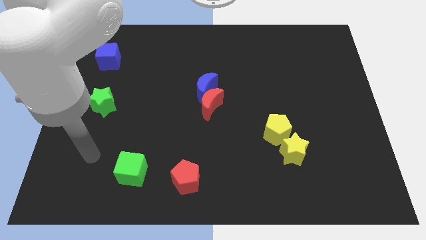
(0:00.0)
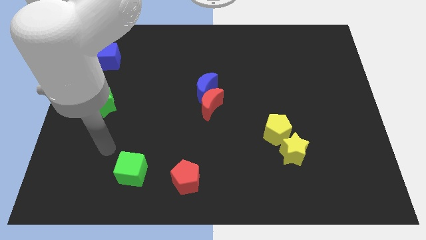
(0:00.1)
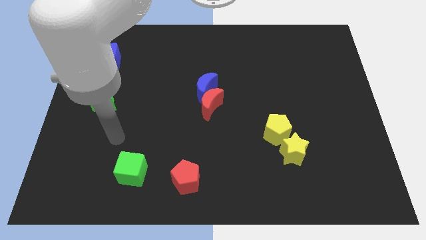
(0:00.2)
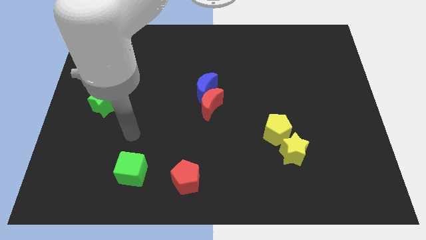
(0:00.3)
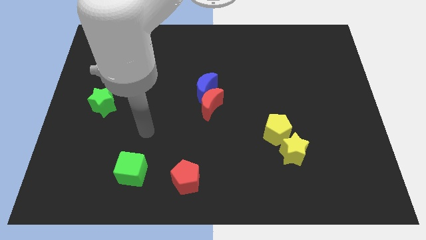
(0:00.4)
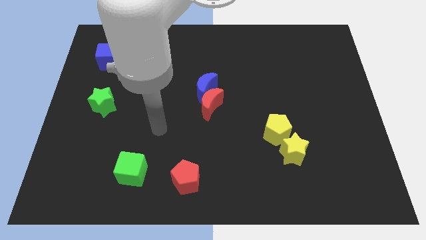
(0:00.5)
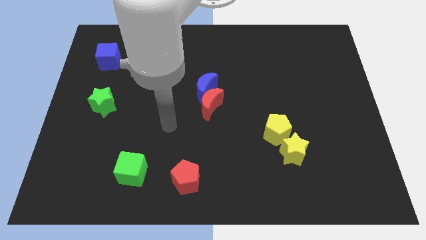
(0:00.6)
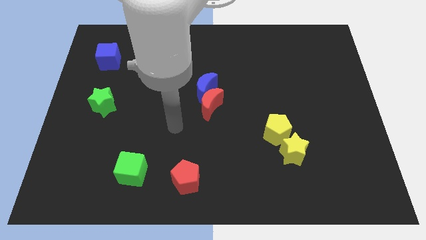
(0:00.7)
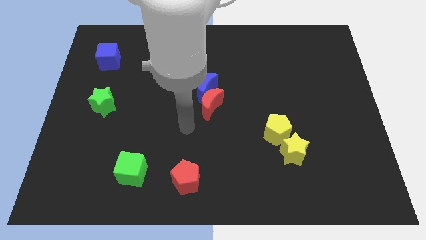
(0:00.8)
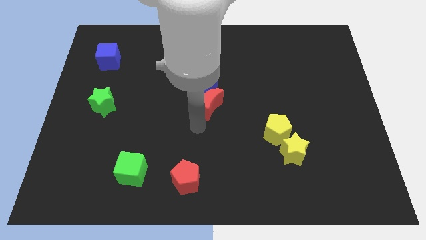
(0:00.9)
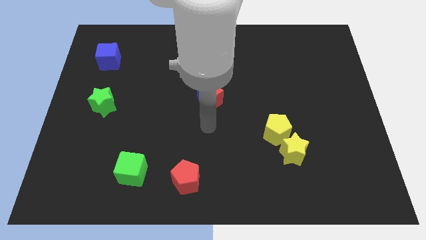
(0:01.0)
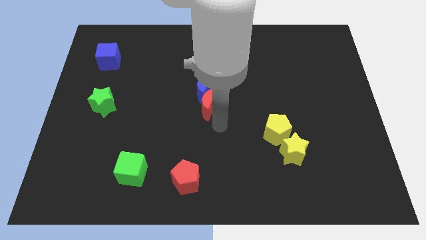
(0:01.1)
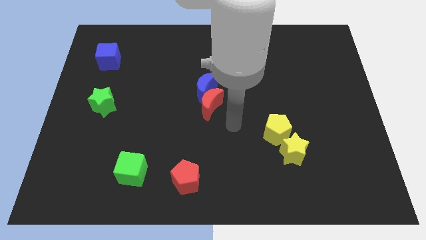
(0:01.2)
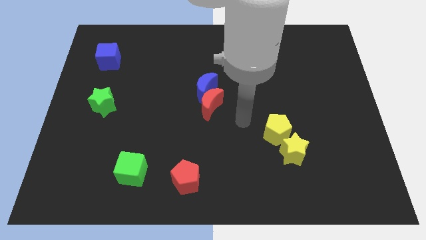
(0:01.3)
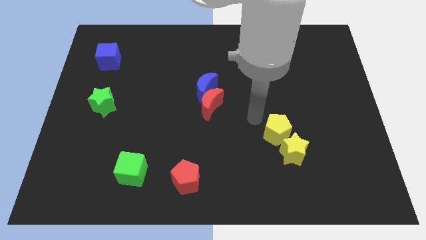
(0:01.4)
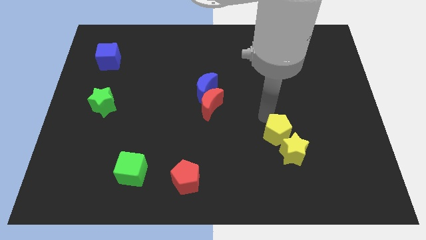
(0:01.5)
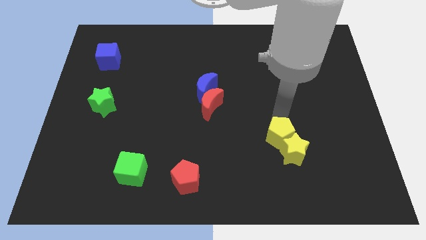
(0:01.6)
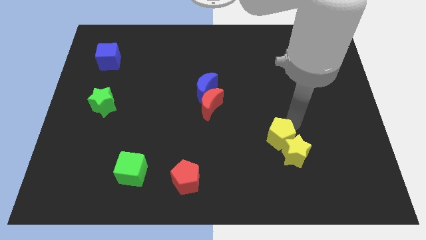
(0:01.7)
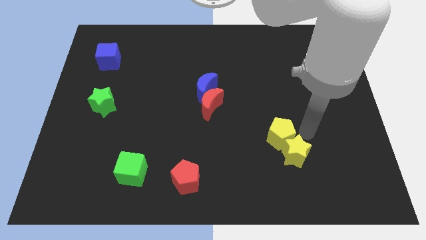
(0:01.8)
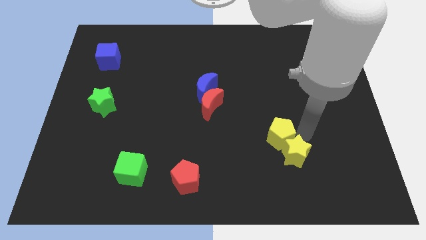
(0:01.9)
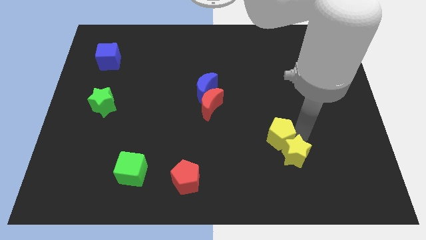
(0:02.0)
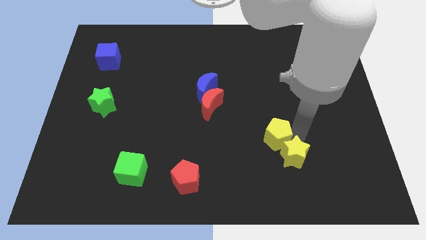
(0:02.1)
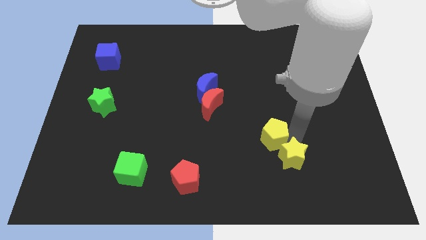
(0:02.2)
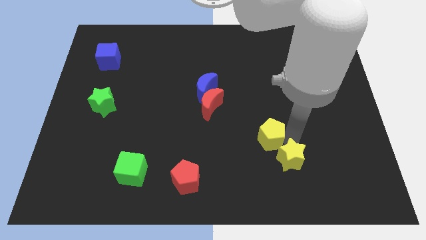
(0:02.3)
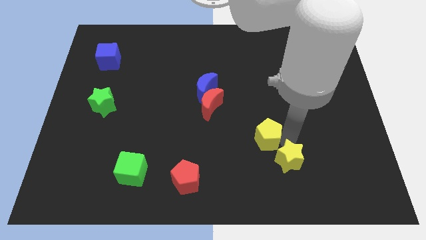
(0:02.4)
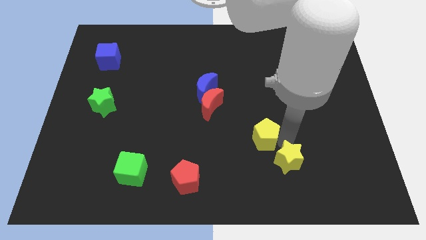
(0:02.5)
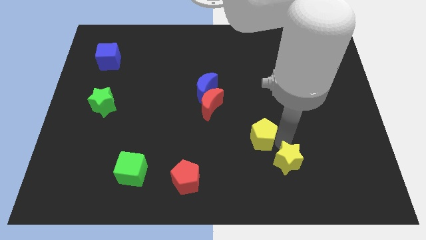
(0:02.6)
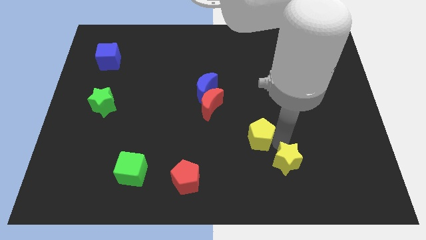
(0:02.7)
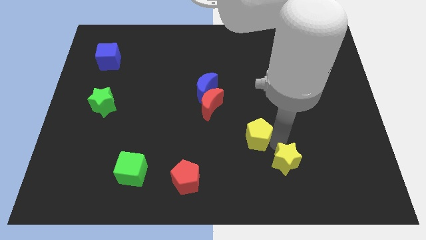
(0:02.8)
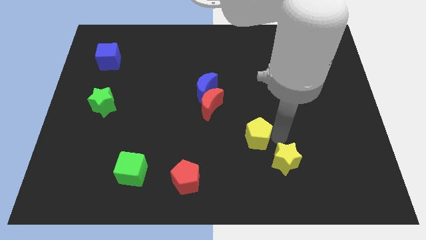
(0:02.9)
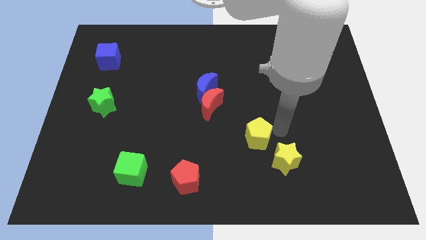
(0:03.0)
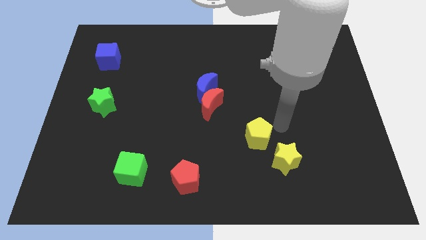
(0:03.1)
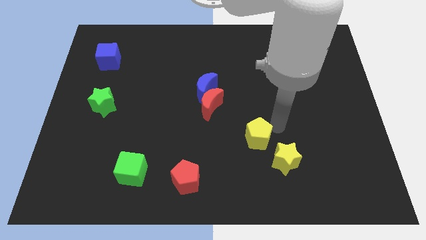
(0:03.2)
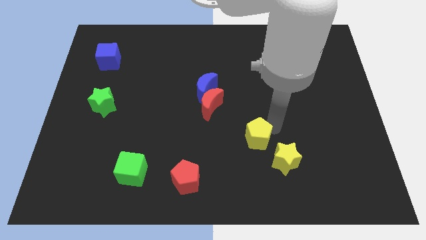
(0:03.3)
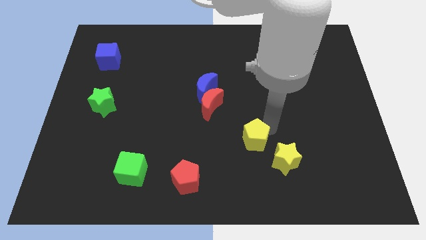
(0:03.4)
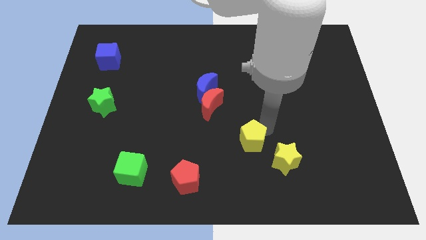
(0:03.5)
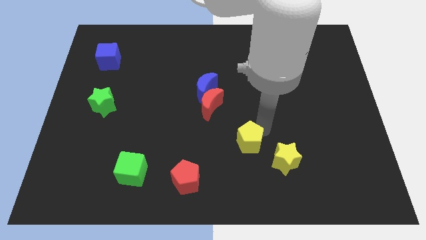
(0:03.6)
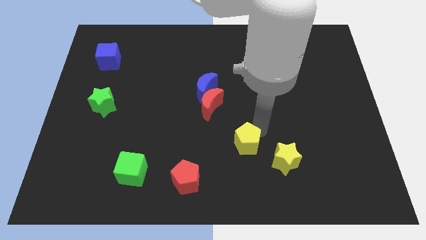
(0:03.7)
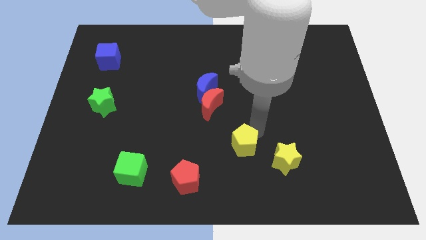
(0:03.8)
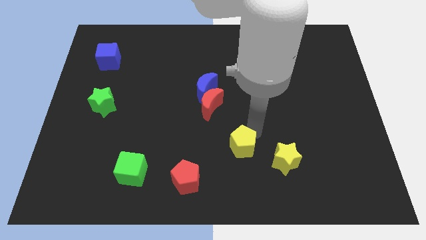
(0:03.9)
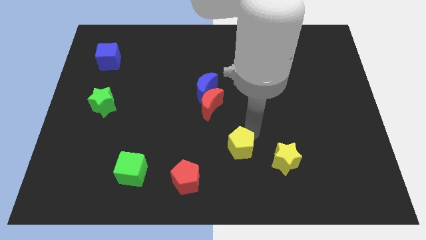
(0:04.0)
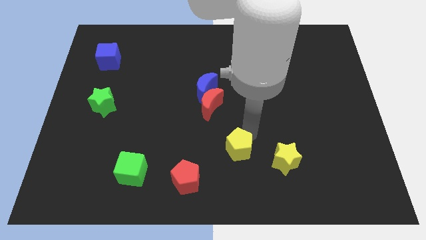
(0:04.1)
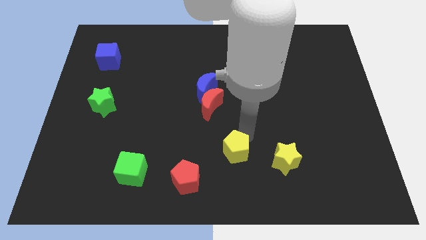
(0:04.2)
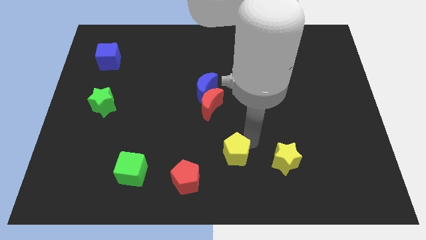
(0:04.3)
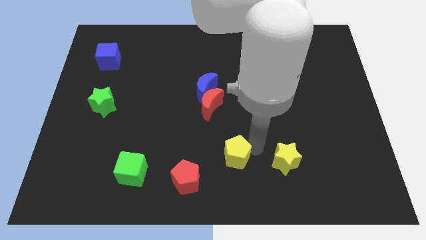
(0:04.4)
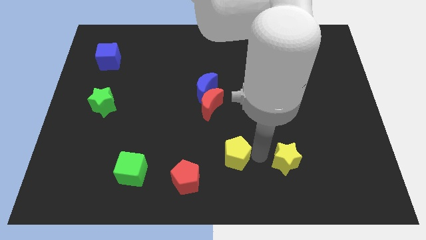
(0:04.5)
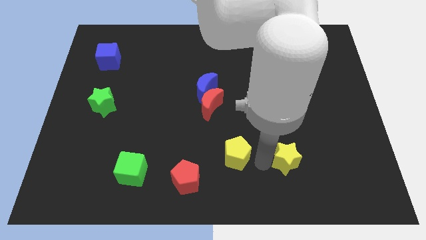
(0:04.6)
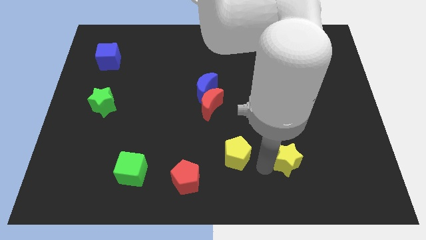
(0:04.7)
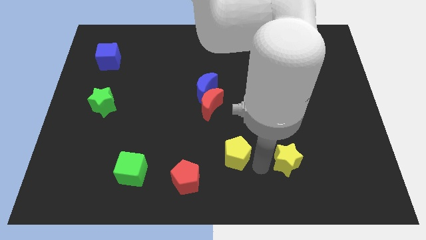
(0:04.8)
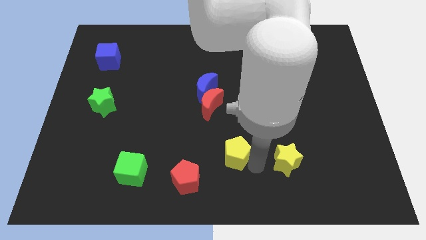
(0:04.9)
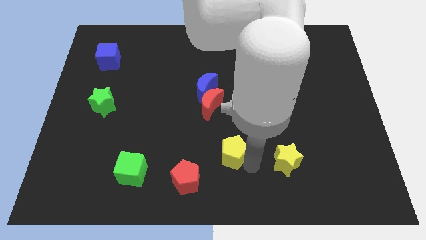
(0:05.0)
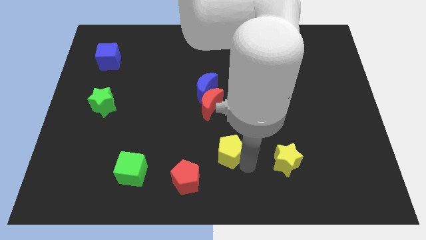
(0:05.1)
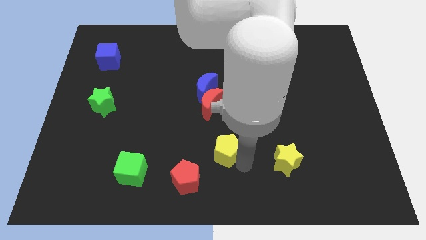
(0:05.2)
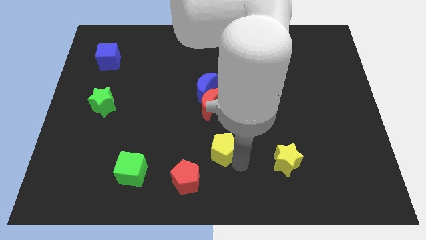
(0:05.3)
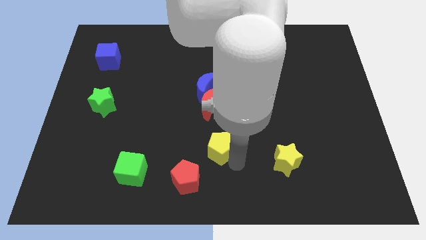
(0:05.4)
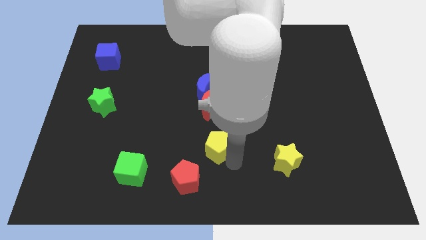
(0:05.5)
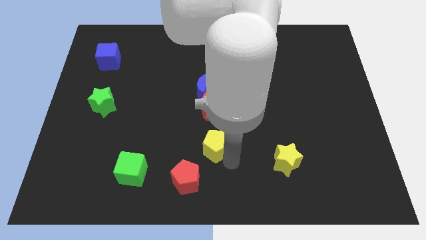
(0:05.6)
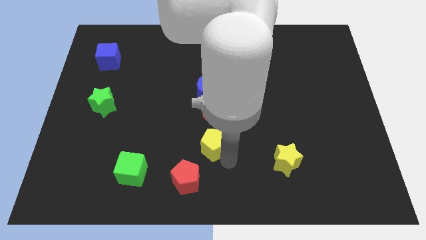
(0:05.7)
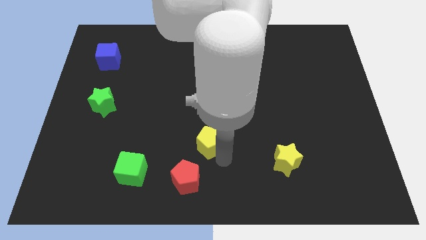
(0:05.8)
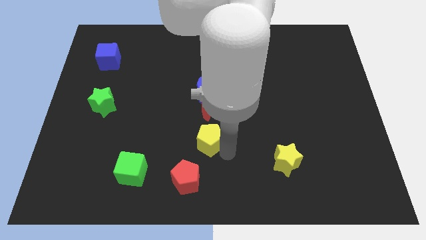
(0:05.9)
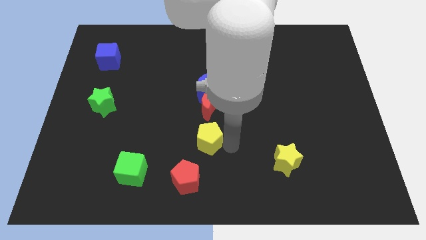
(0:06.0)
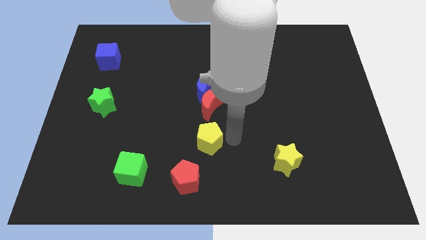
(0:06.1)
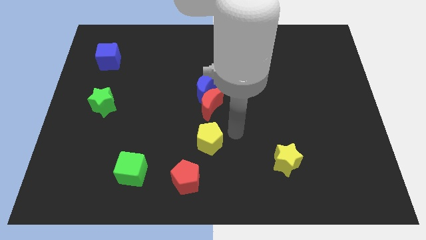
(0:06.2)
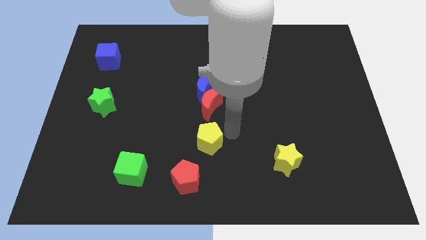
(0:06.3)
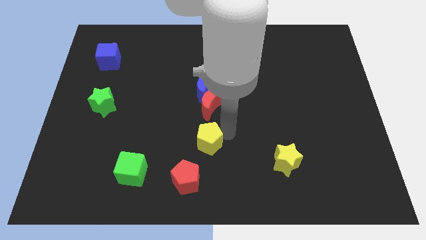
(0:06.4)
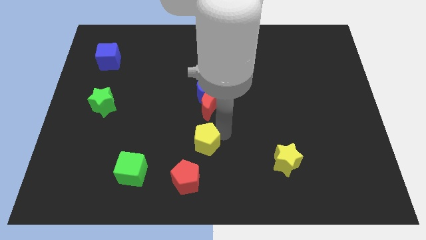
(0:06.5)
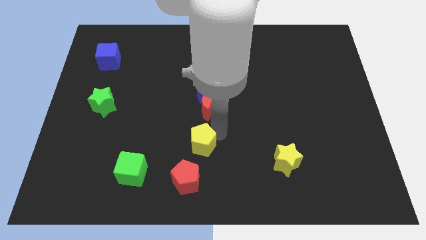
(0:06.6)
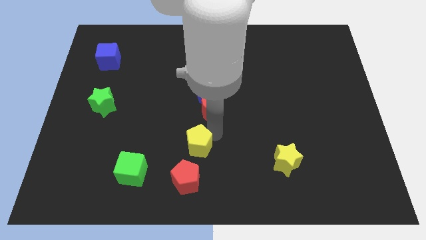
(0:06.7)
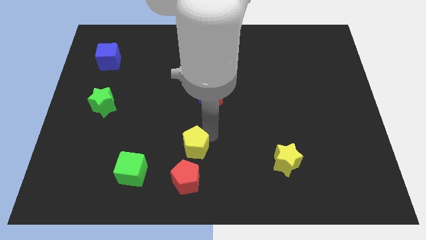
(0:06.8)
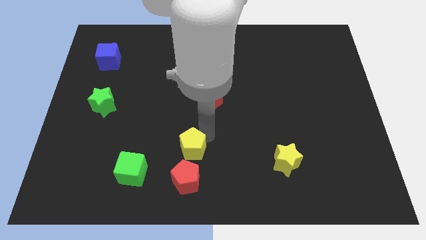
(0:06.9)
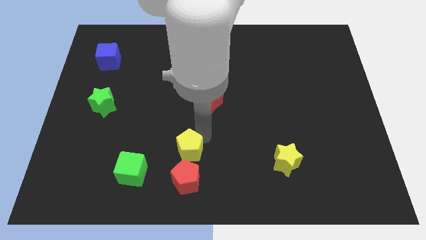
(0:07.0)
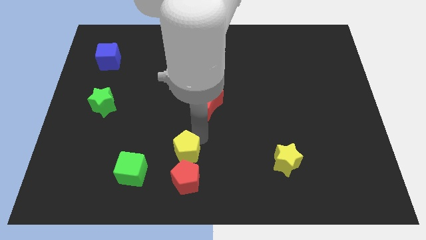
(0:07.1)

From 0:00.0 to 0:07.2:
put the yellow pentagon to the top left side of the red pentagon
